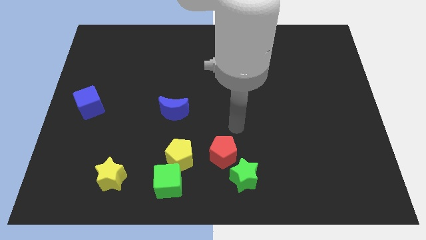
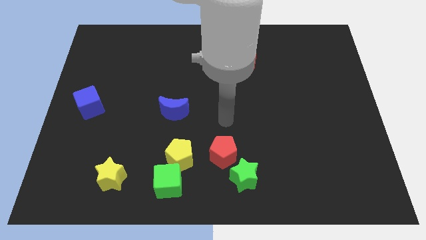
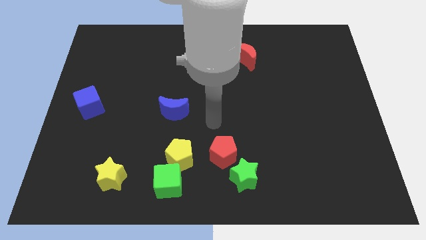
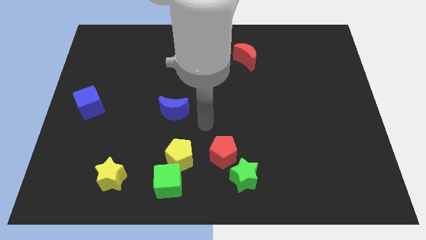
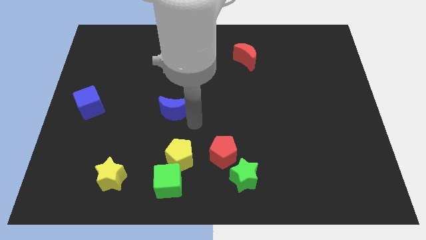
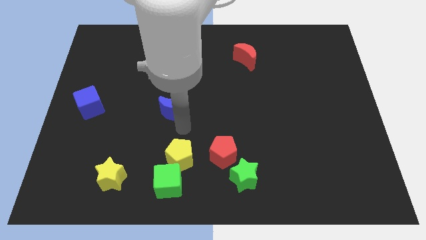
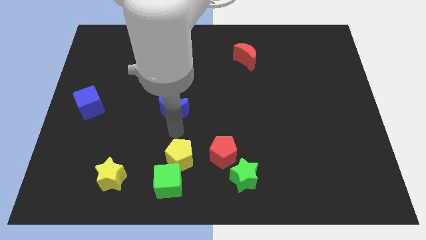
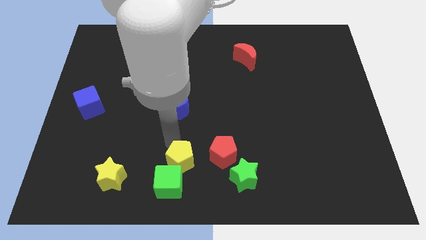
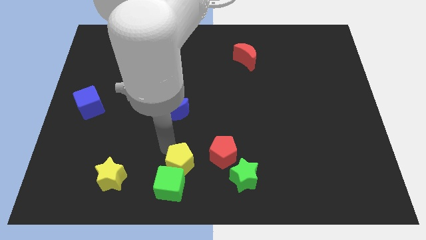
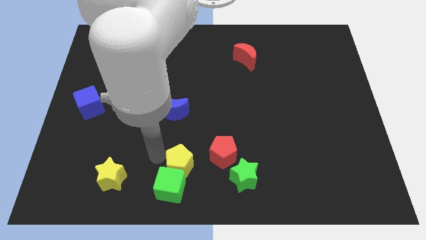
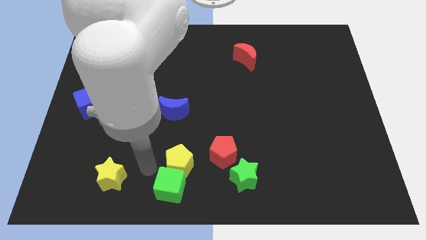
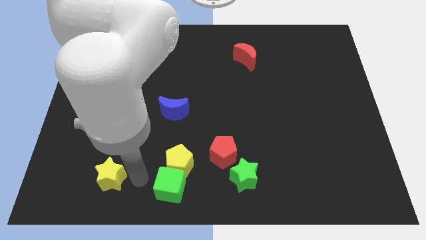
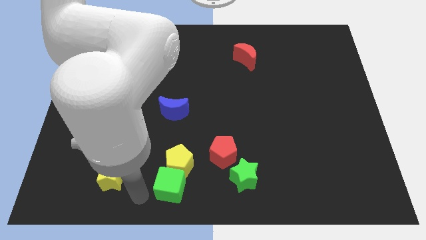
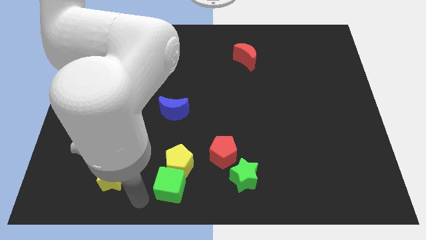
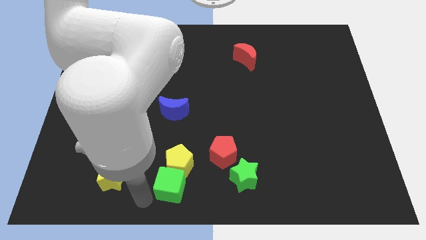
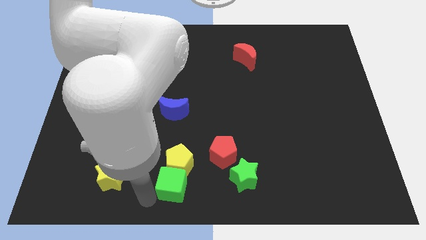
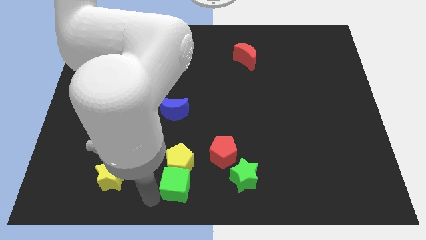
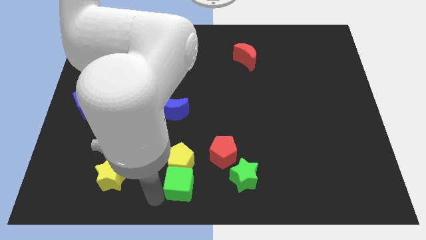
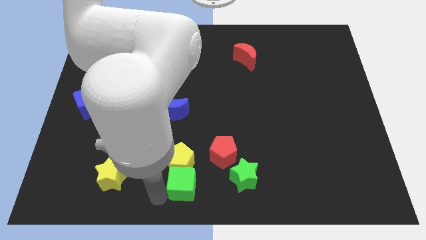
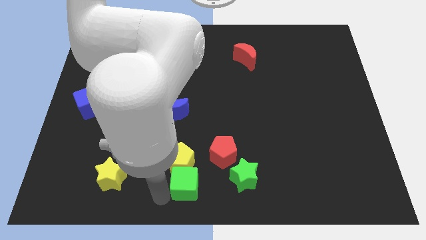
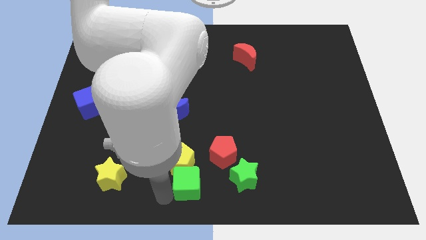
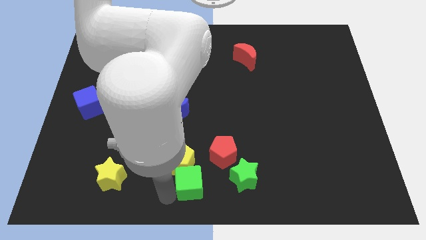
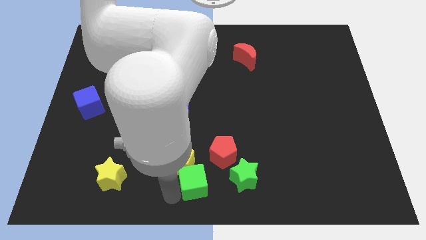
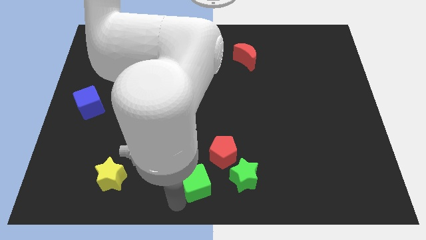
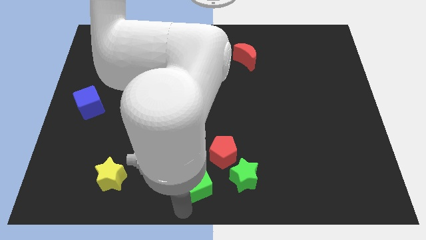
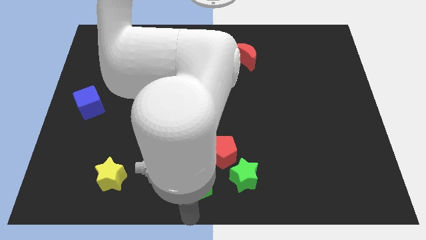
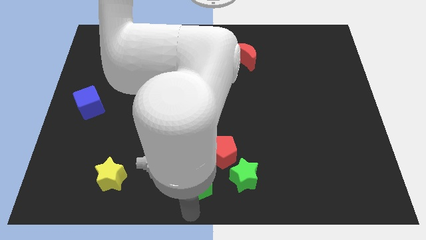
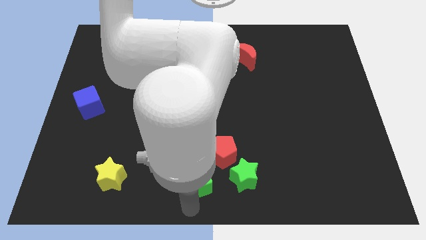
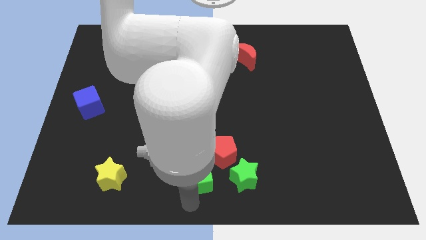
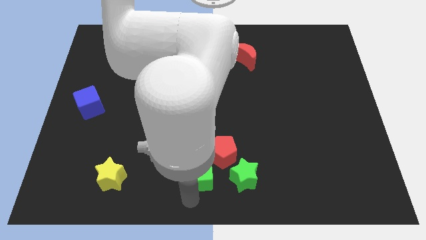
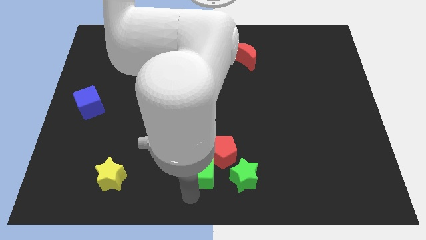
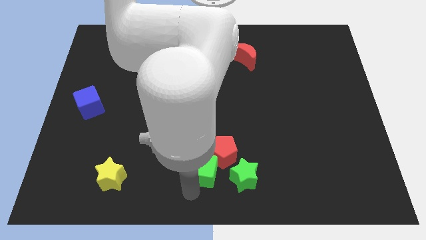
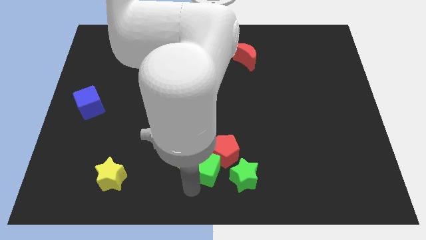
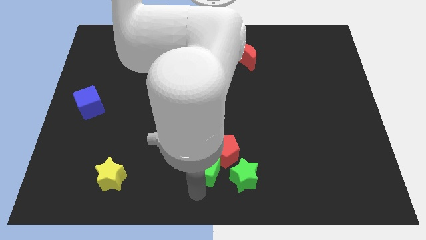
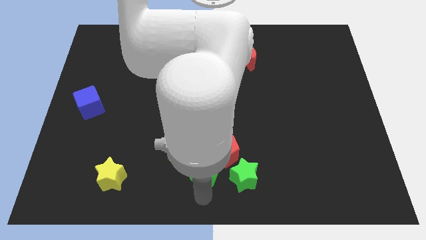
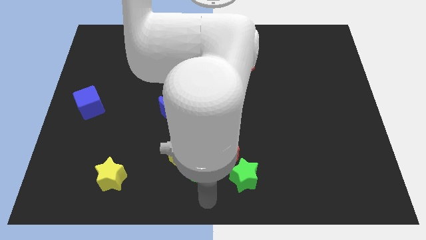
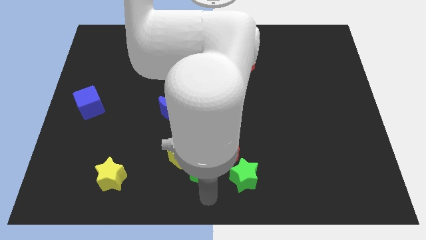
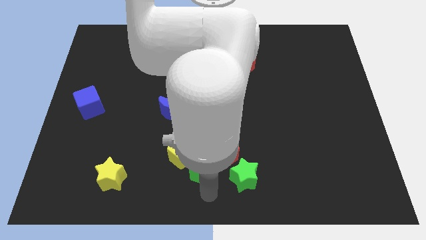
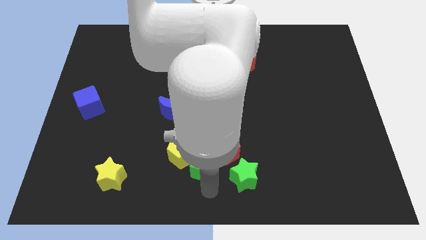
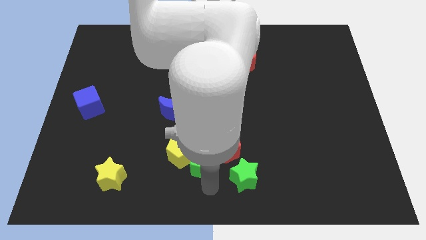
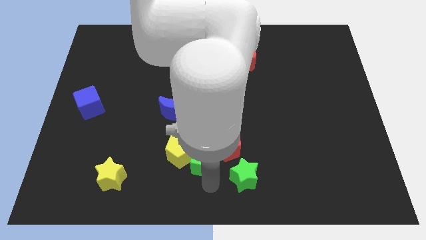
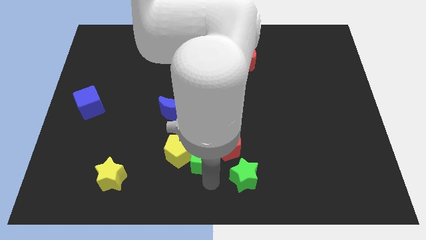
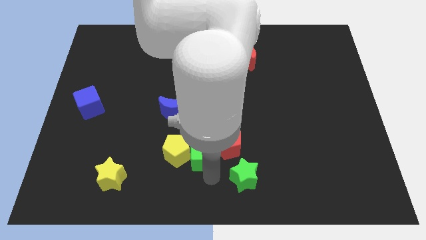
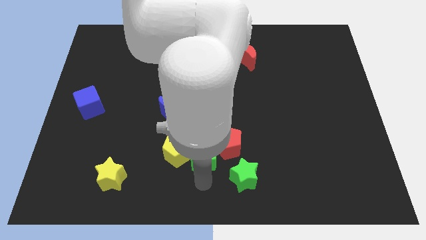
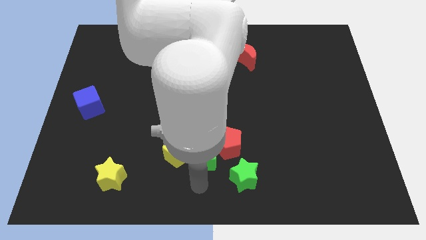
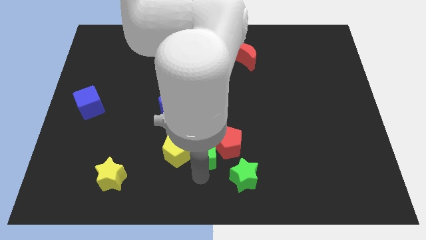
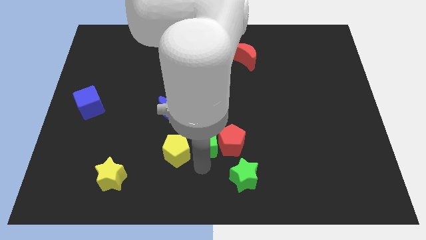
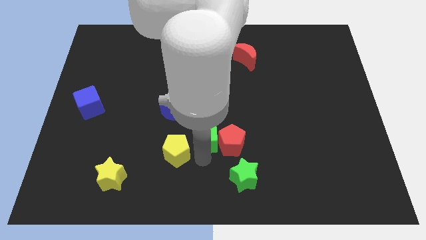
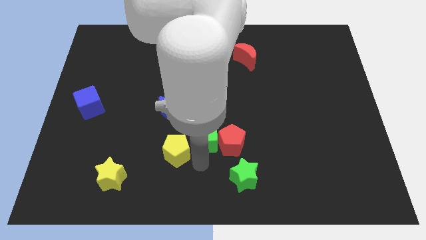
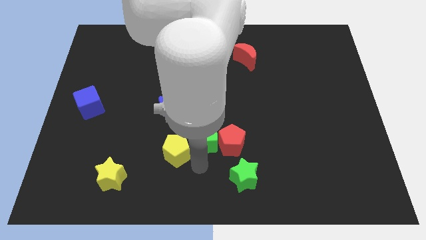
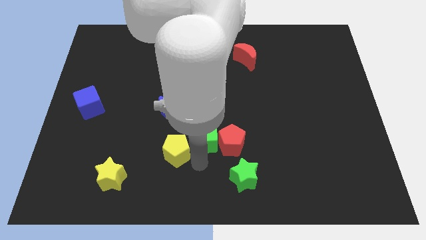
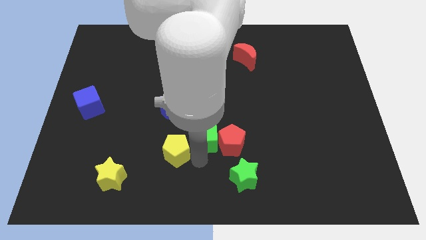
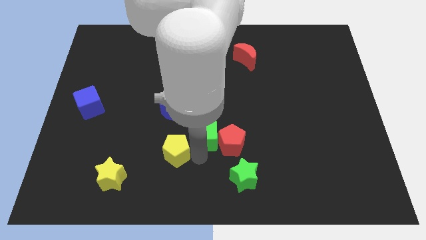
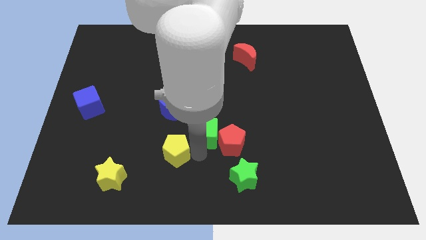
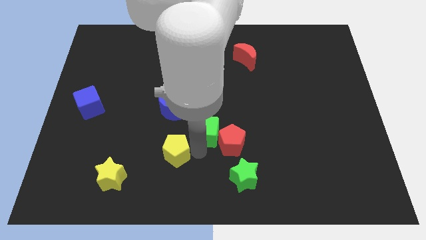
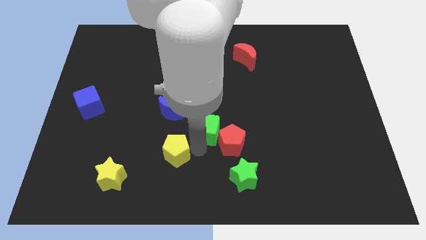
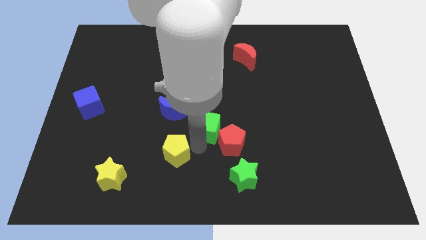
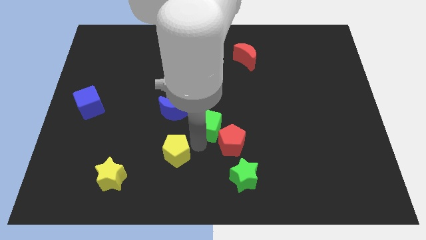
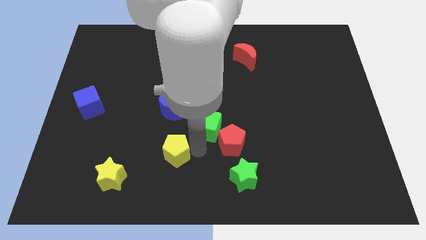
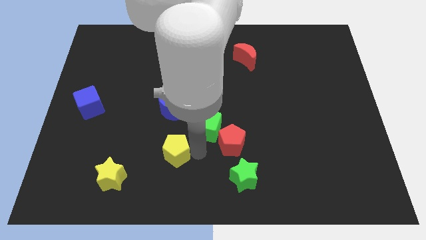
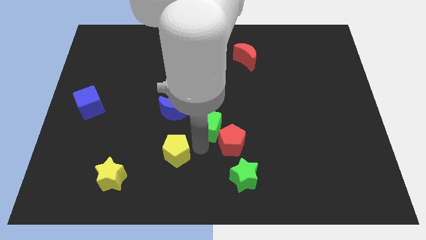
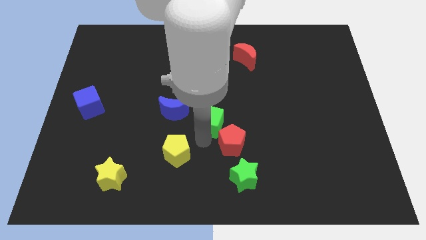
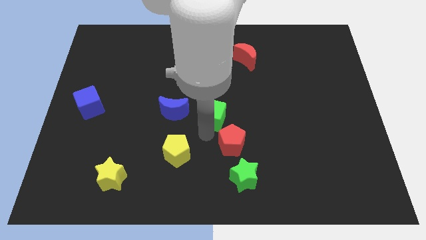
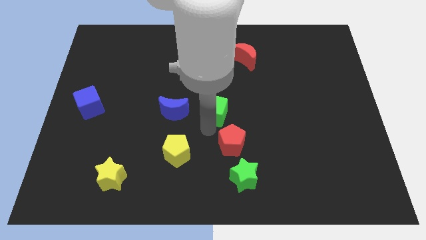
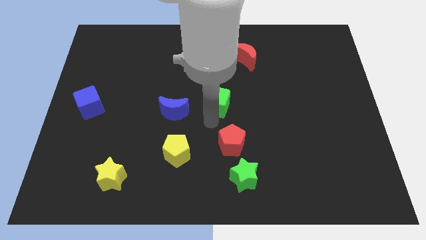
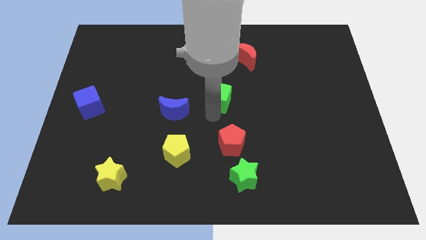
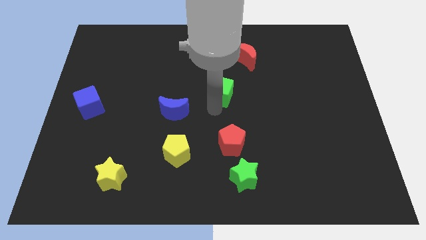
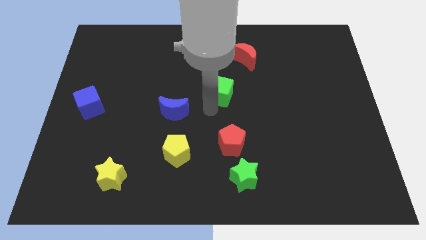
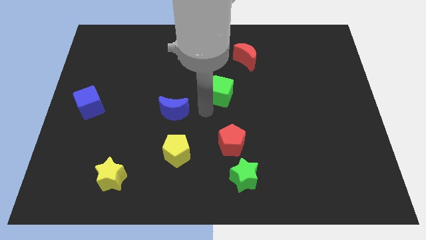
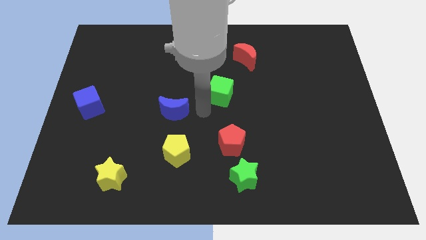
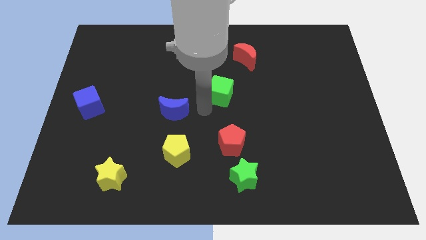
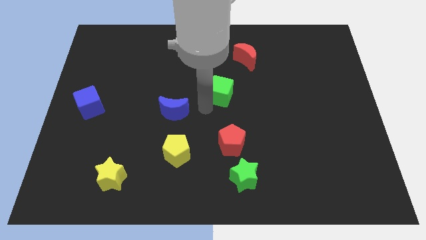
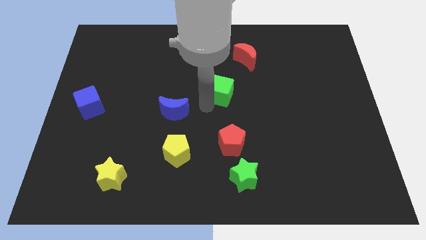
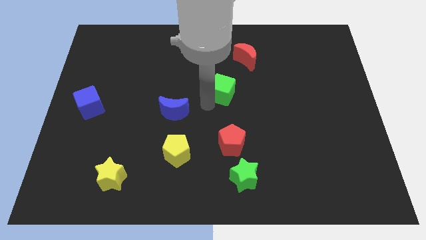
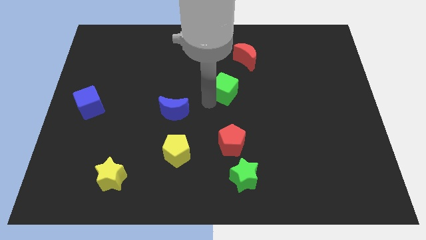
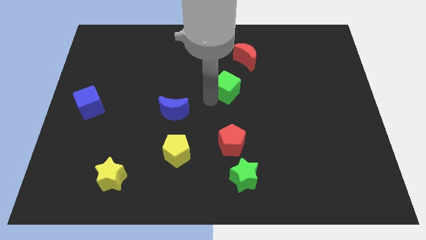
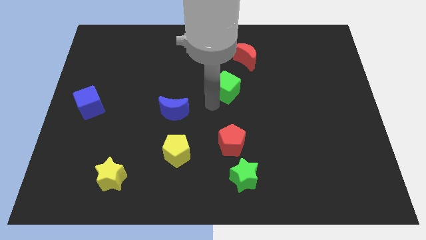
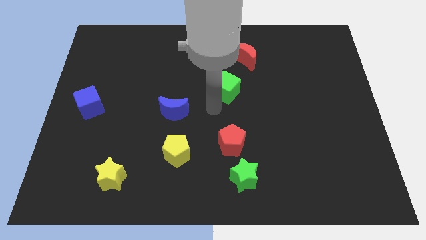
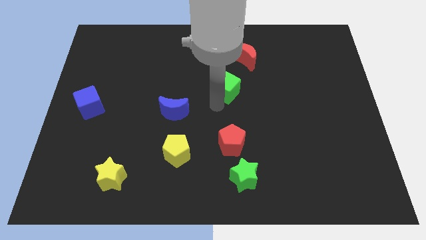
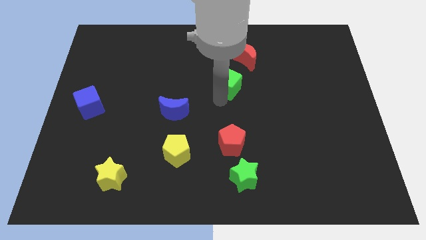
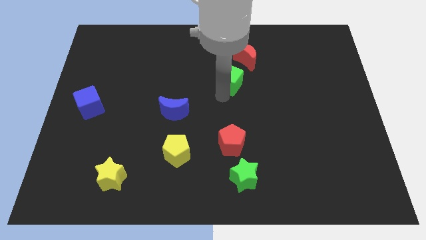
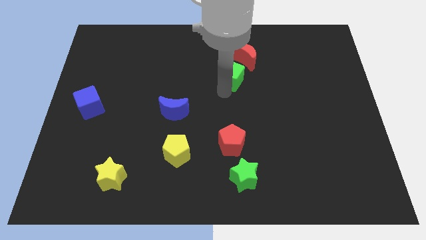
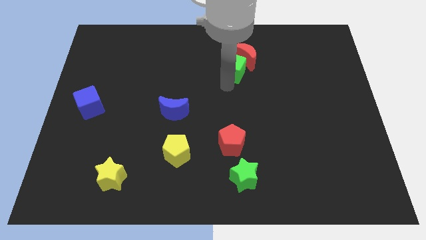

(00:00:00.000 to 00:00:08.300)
move the green cube to the red moon
